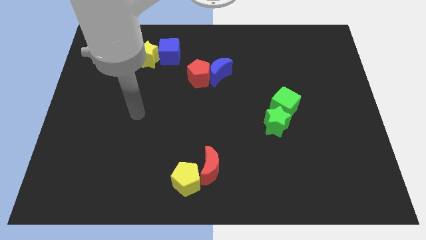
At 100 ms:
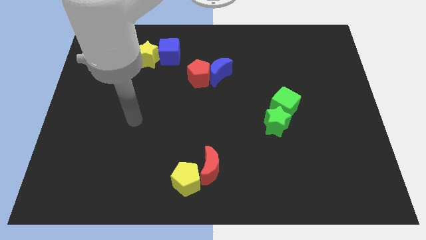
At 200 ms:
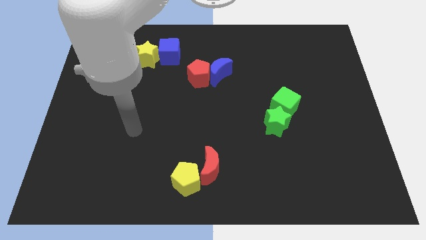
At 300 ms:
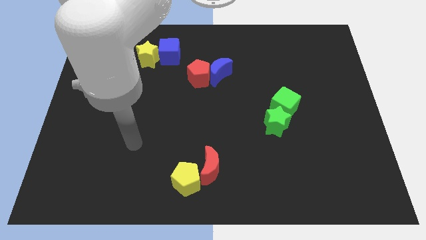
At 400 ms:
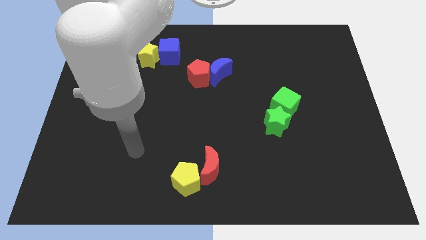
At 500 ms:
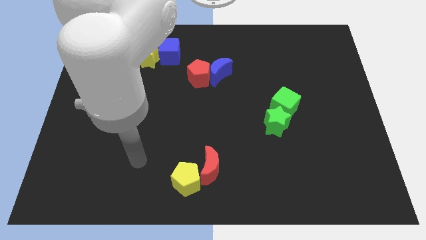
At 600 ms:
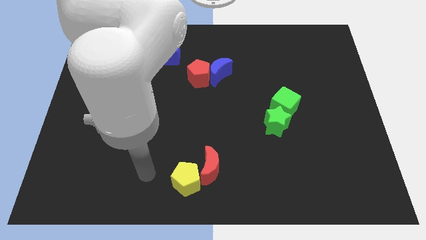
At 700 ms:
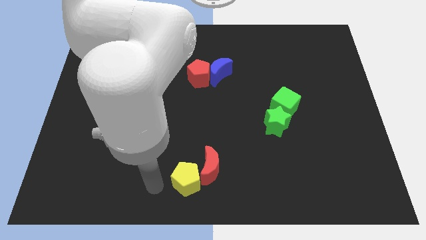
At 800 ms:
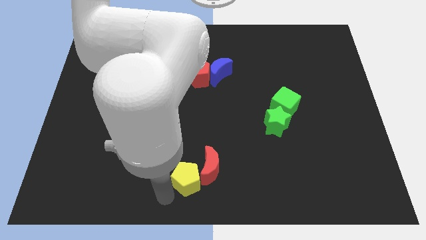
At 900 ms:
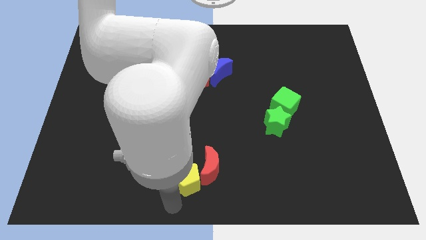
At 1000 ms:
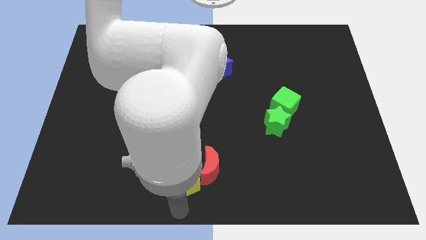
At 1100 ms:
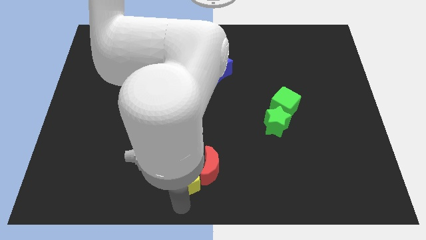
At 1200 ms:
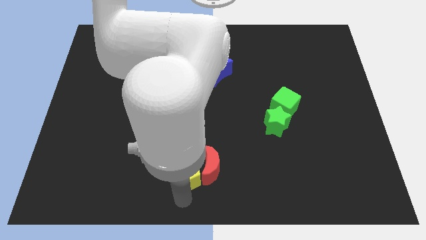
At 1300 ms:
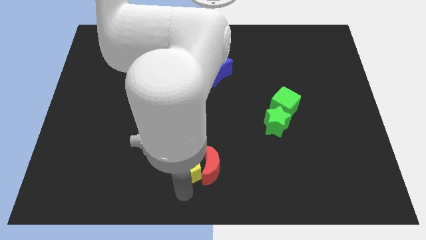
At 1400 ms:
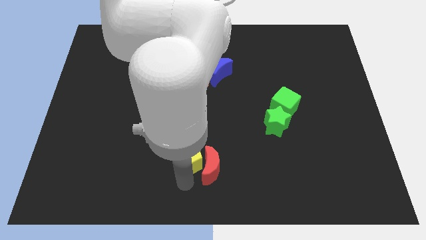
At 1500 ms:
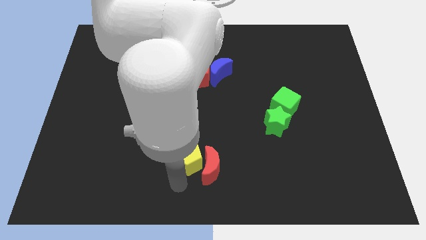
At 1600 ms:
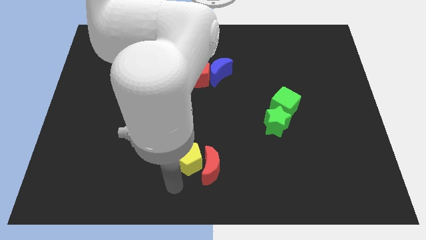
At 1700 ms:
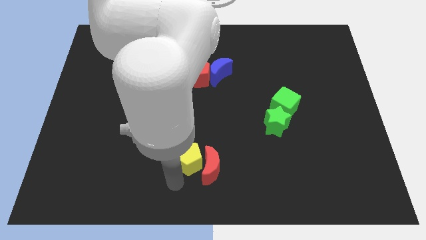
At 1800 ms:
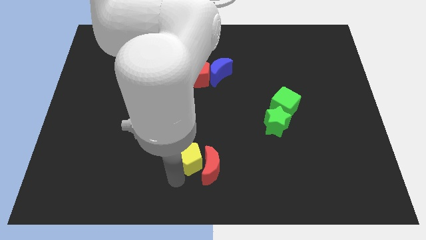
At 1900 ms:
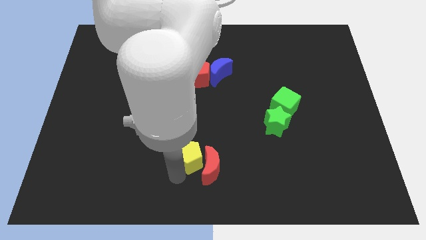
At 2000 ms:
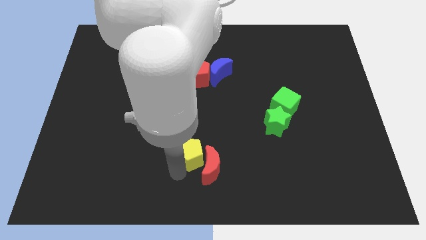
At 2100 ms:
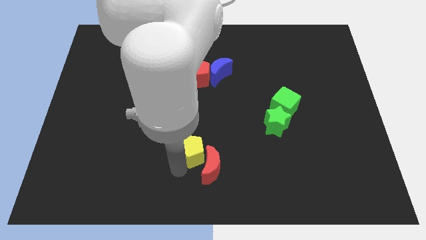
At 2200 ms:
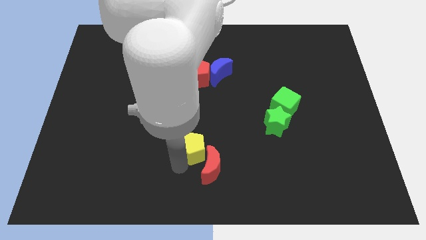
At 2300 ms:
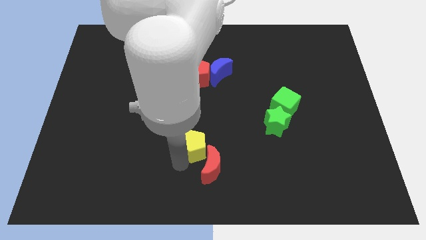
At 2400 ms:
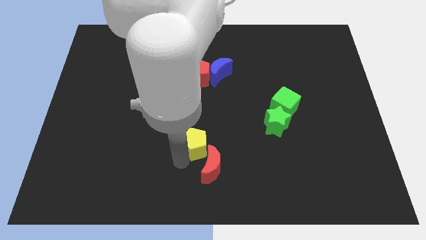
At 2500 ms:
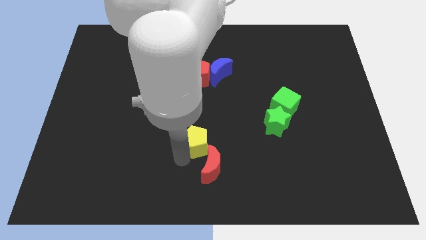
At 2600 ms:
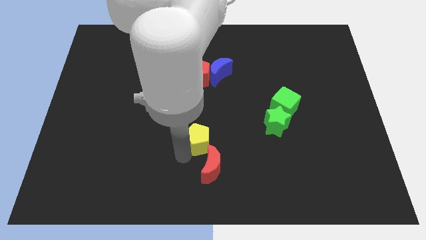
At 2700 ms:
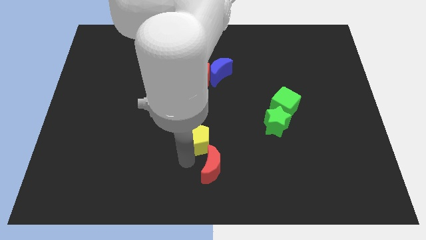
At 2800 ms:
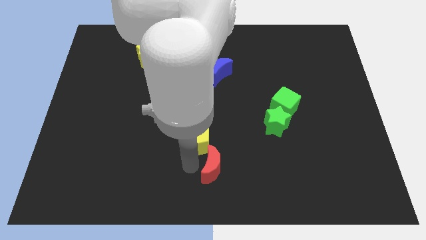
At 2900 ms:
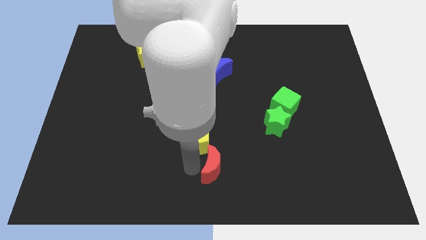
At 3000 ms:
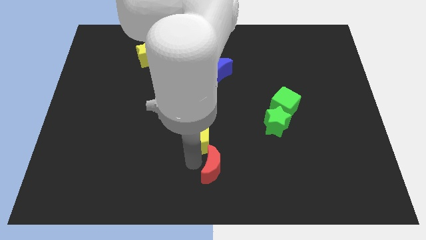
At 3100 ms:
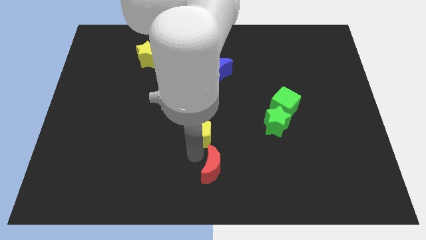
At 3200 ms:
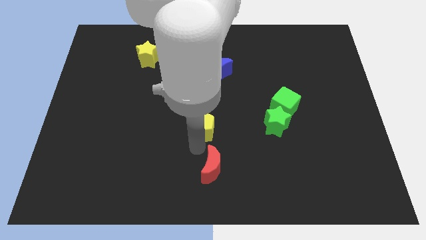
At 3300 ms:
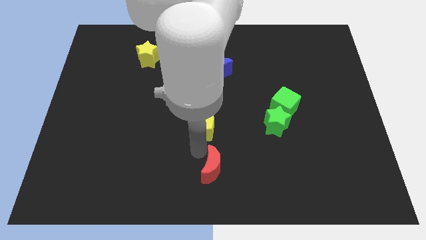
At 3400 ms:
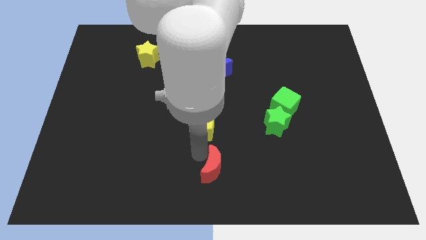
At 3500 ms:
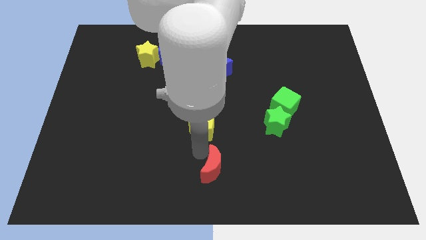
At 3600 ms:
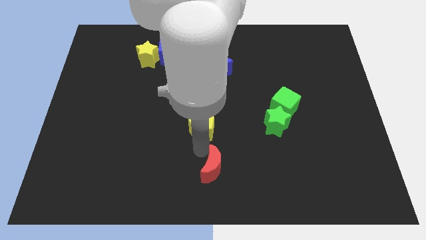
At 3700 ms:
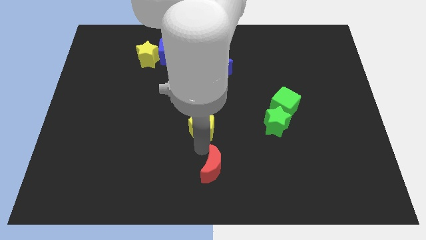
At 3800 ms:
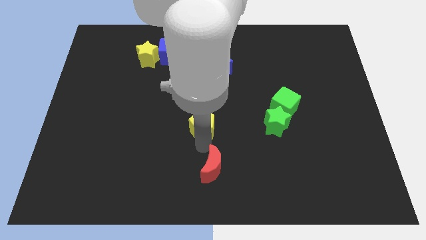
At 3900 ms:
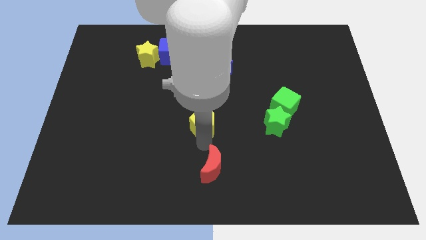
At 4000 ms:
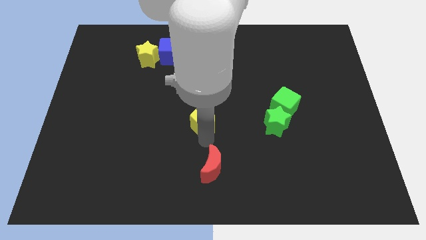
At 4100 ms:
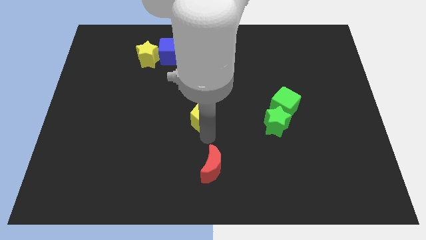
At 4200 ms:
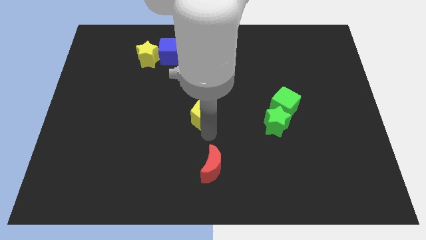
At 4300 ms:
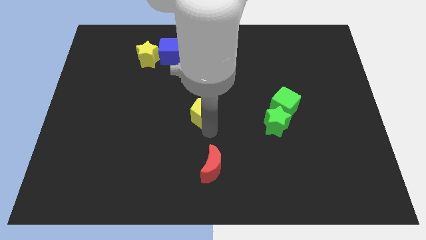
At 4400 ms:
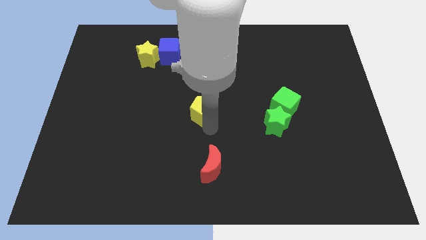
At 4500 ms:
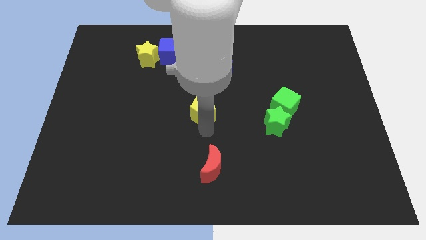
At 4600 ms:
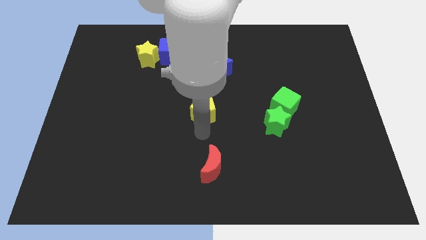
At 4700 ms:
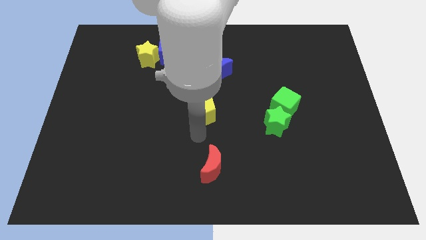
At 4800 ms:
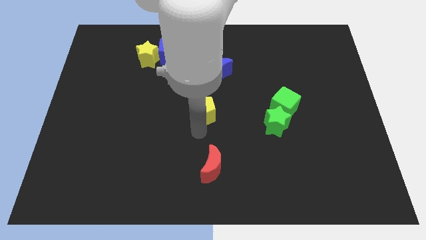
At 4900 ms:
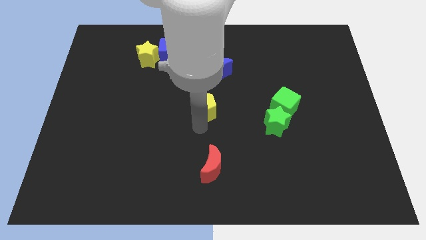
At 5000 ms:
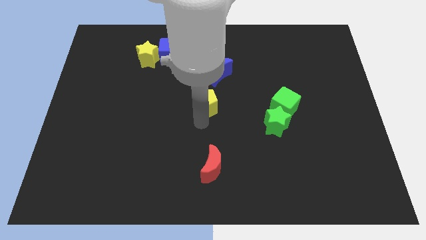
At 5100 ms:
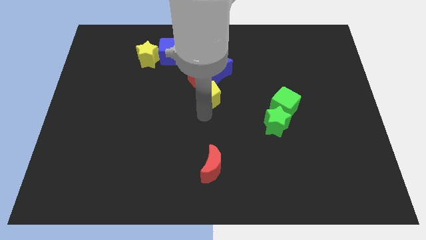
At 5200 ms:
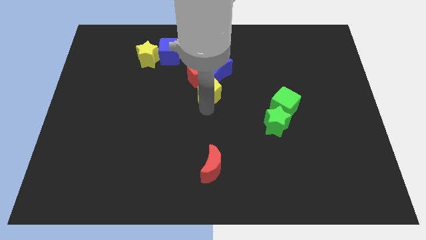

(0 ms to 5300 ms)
slide the yellow pentagon towards the red pentagon

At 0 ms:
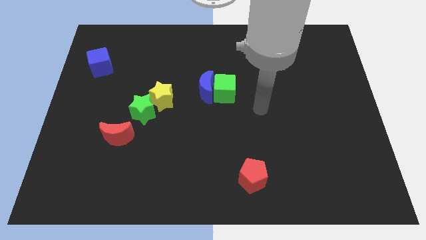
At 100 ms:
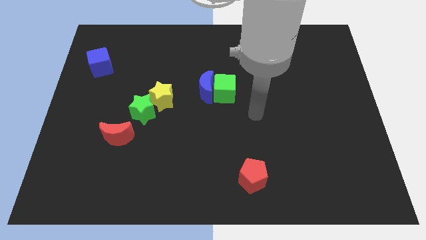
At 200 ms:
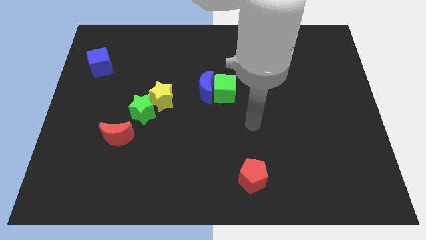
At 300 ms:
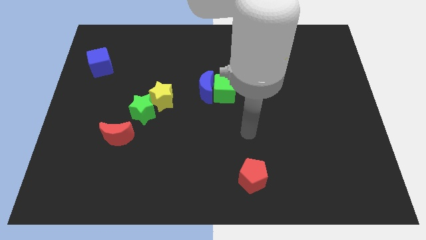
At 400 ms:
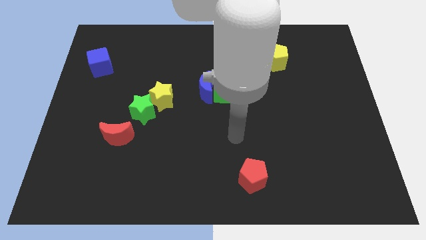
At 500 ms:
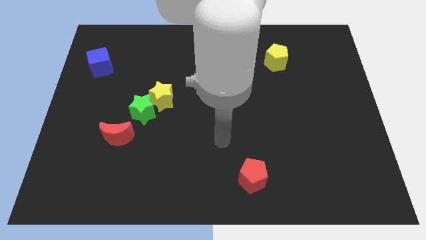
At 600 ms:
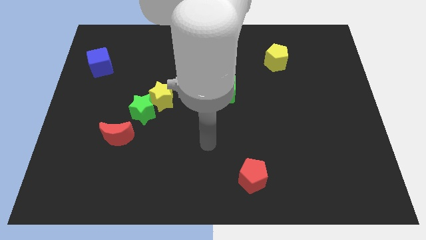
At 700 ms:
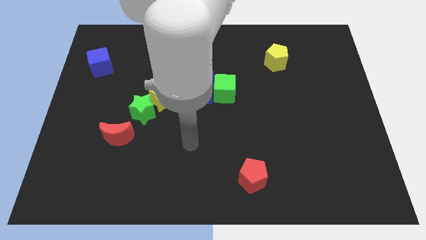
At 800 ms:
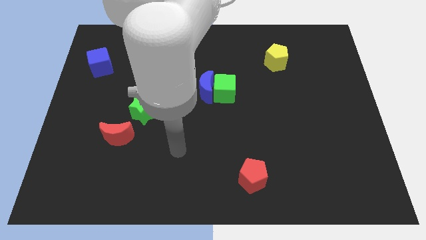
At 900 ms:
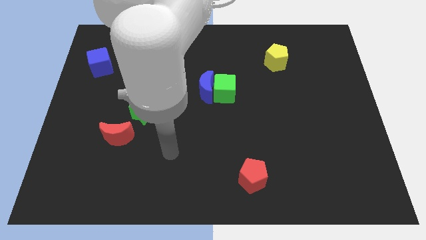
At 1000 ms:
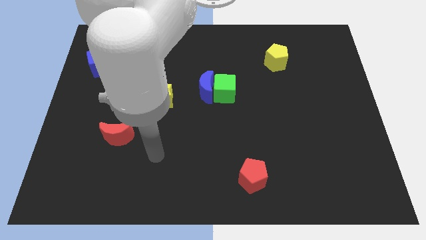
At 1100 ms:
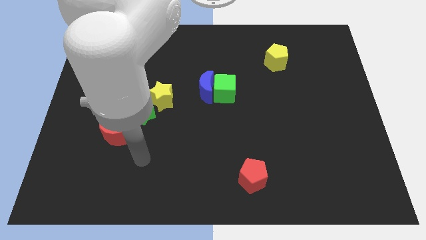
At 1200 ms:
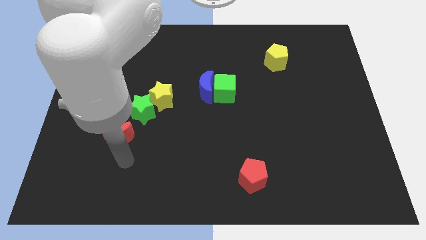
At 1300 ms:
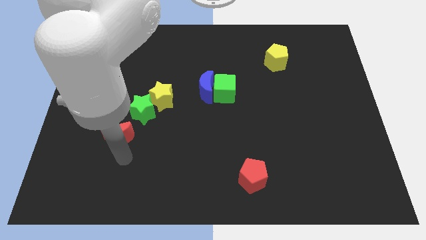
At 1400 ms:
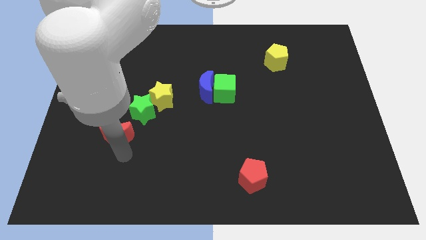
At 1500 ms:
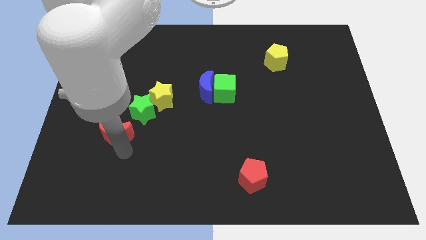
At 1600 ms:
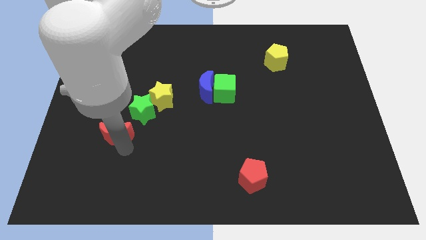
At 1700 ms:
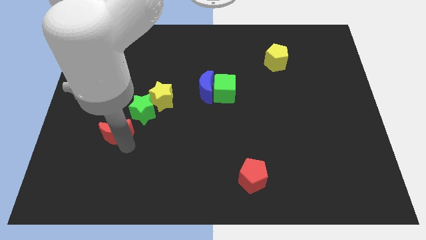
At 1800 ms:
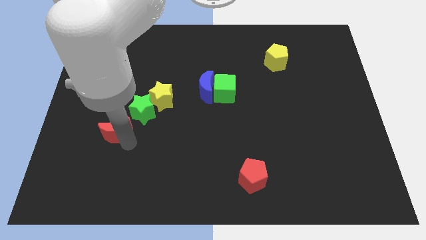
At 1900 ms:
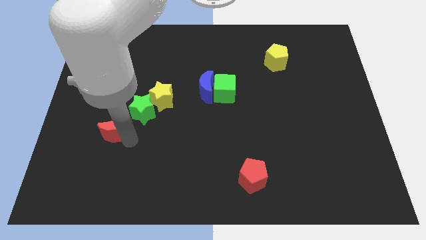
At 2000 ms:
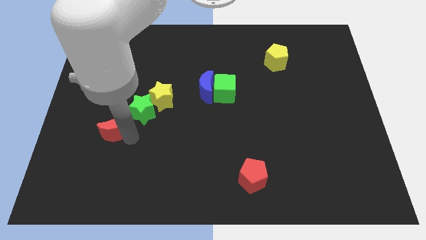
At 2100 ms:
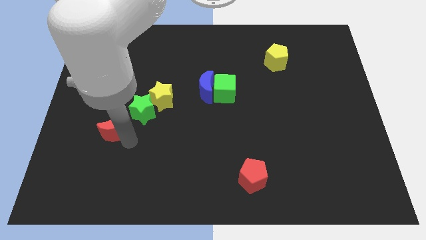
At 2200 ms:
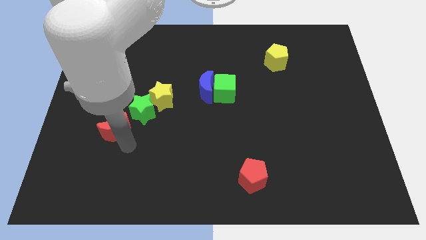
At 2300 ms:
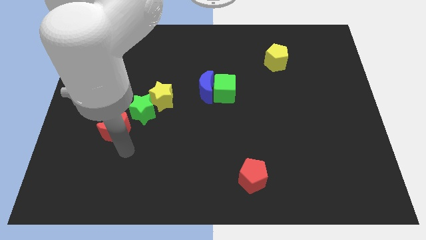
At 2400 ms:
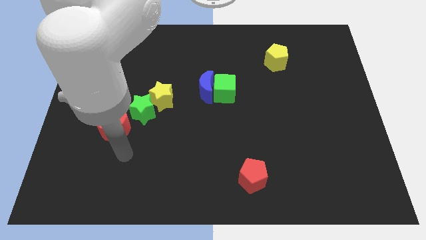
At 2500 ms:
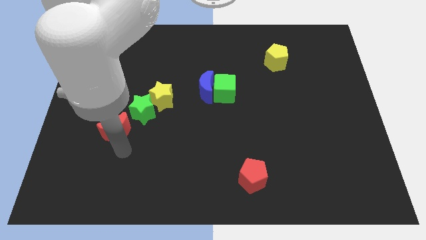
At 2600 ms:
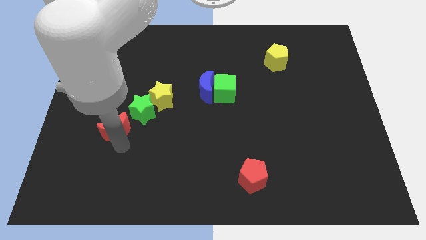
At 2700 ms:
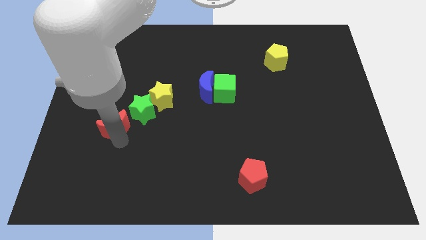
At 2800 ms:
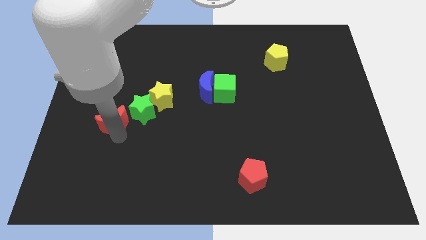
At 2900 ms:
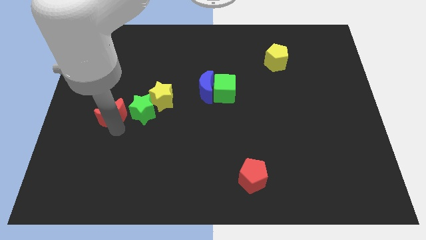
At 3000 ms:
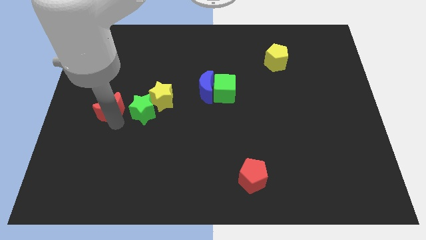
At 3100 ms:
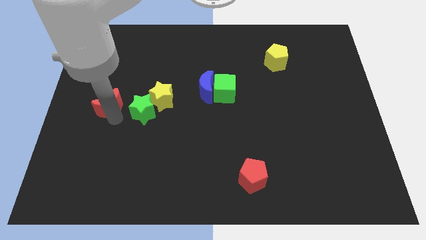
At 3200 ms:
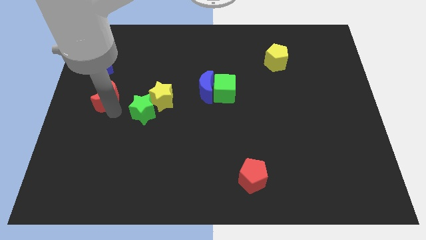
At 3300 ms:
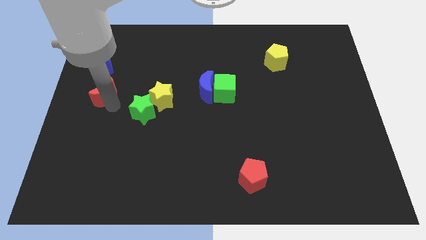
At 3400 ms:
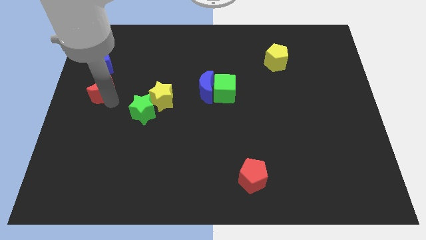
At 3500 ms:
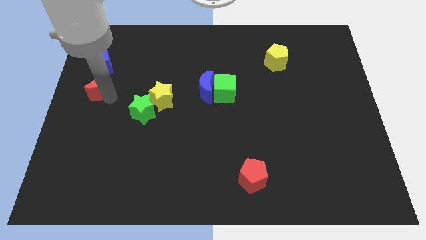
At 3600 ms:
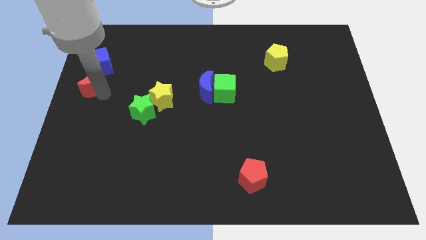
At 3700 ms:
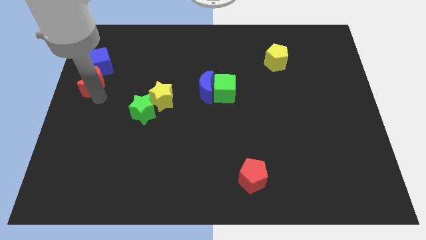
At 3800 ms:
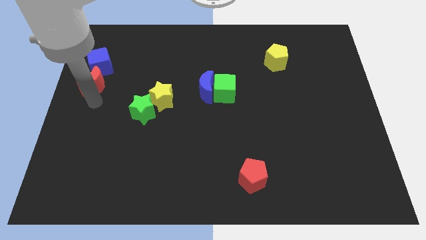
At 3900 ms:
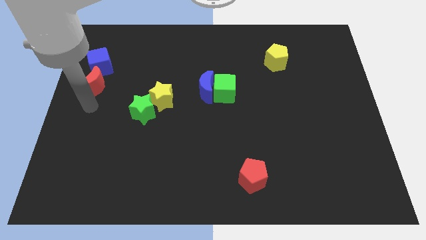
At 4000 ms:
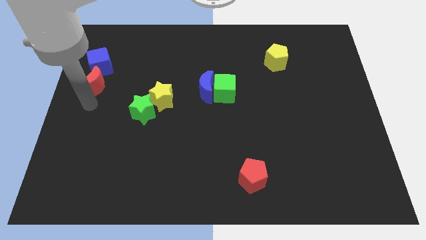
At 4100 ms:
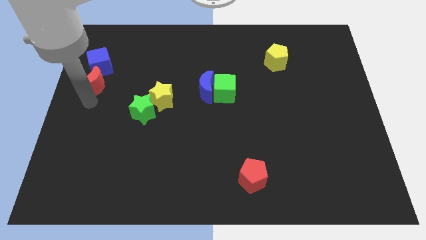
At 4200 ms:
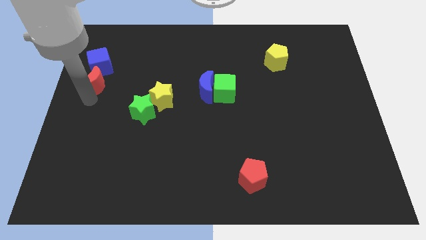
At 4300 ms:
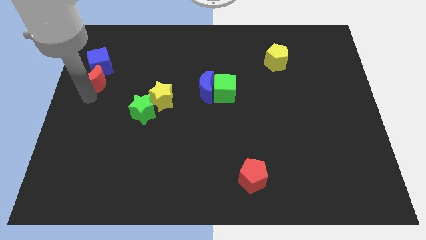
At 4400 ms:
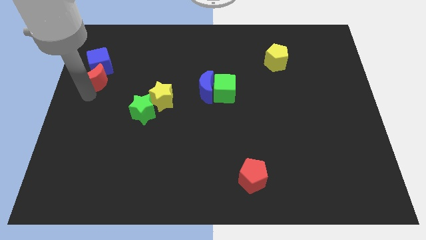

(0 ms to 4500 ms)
slide the red moon close to the blue cube
